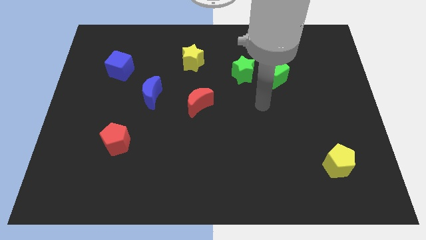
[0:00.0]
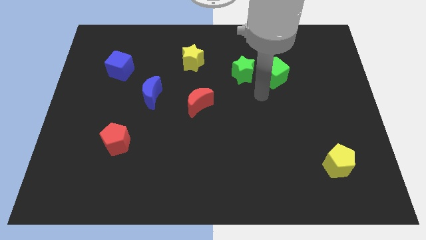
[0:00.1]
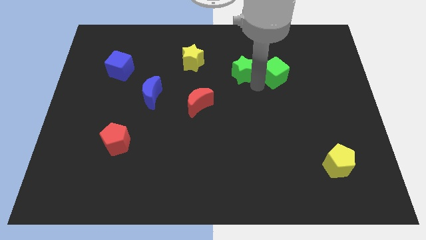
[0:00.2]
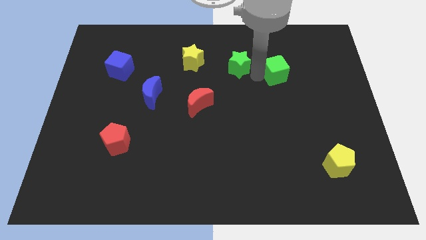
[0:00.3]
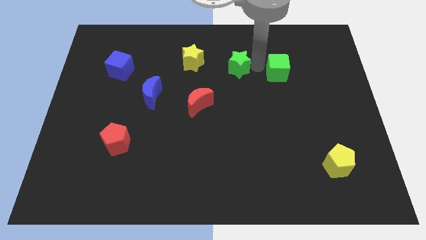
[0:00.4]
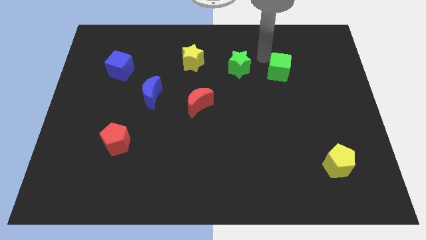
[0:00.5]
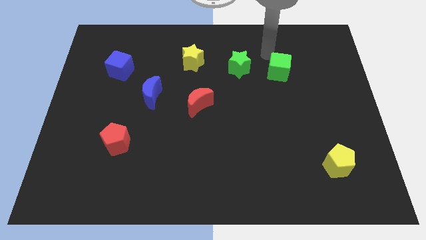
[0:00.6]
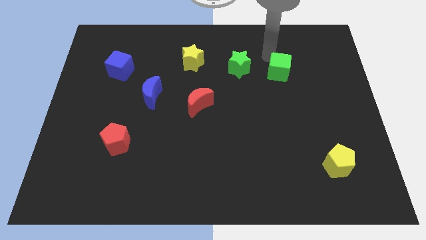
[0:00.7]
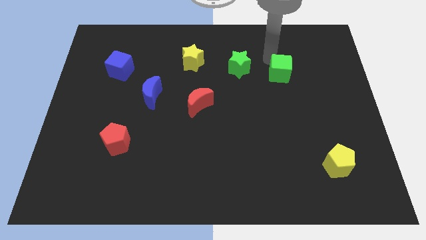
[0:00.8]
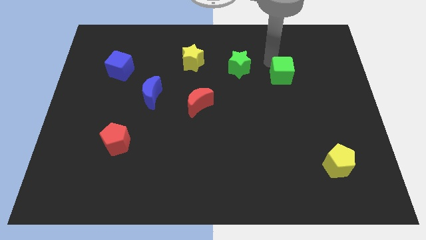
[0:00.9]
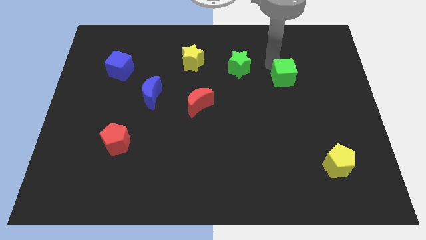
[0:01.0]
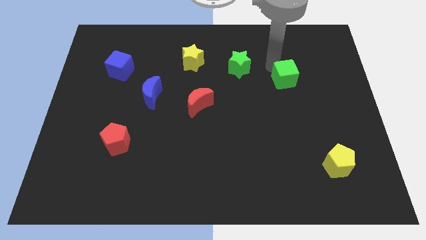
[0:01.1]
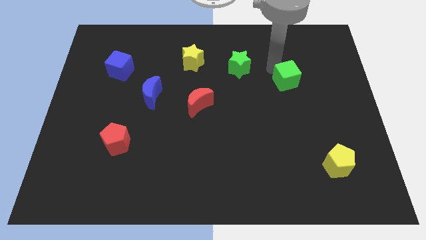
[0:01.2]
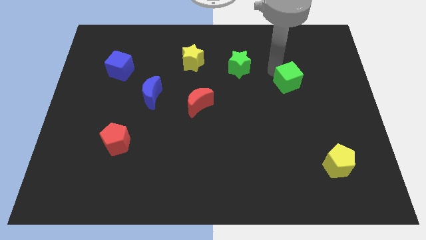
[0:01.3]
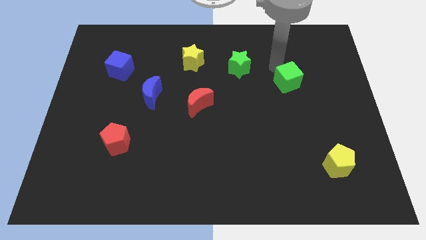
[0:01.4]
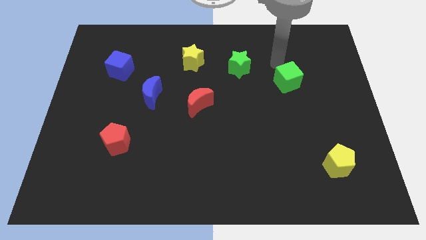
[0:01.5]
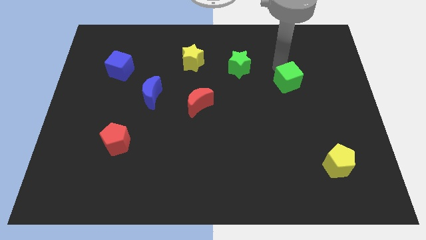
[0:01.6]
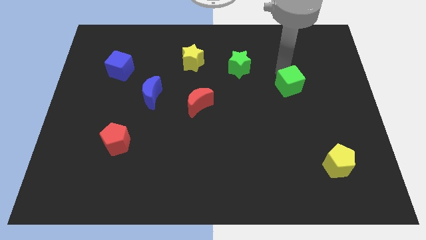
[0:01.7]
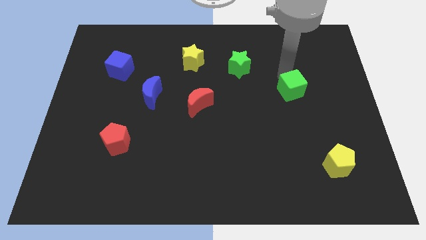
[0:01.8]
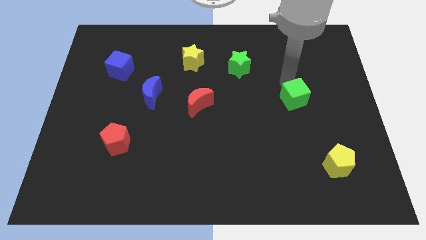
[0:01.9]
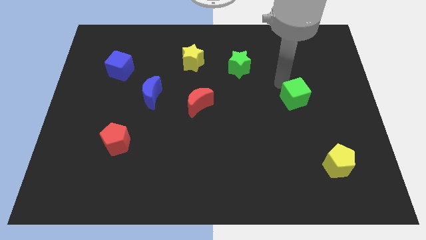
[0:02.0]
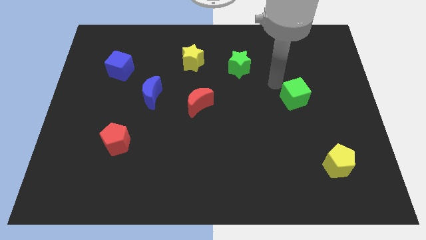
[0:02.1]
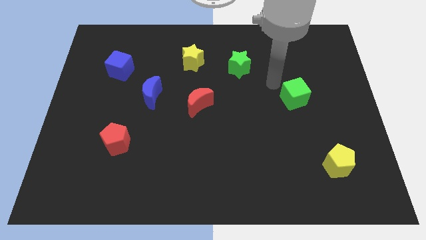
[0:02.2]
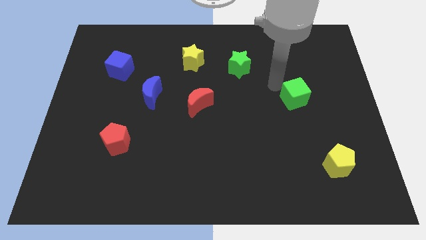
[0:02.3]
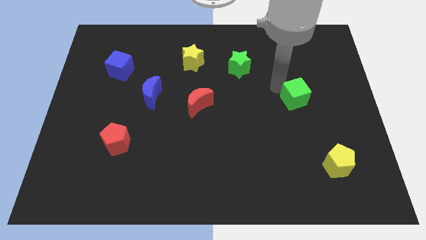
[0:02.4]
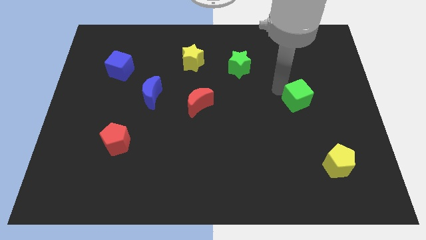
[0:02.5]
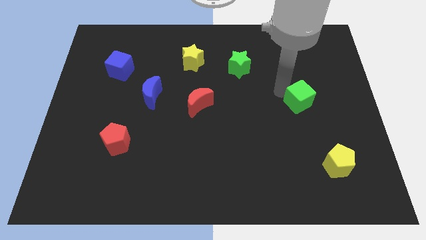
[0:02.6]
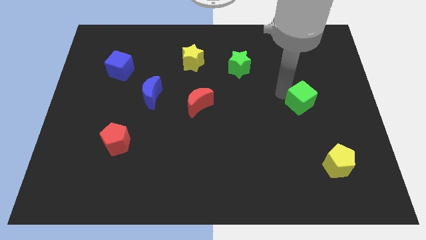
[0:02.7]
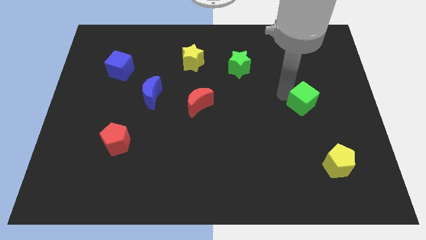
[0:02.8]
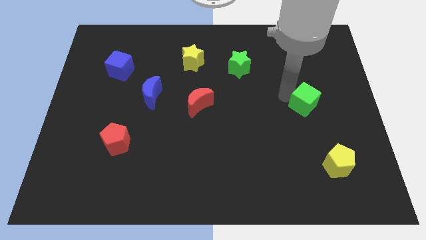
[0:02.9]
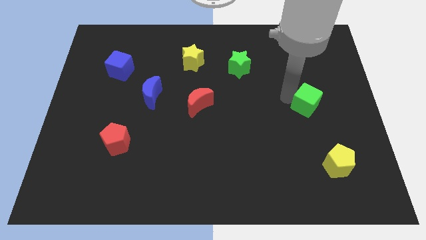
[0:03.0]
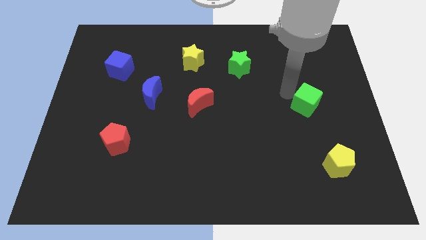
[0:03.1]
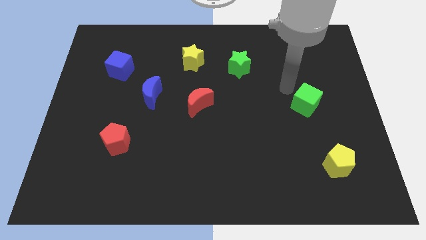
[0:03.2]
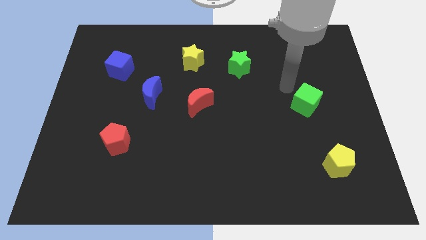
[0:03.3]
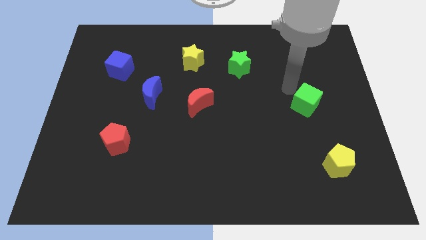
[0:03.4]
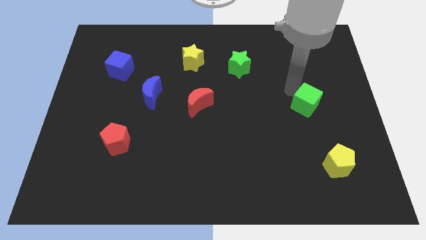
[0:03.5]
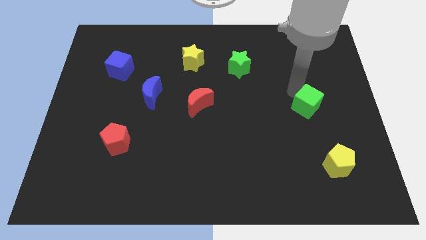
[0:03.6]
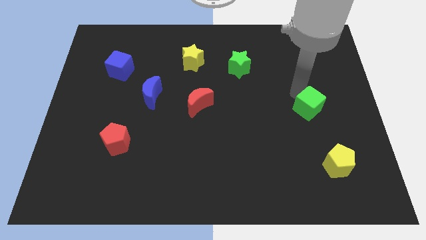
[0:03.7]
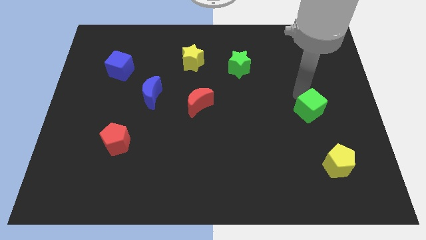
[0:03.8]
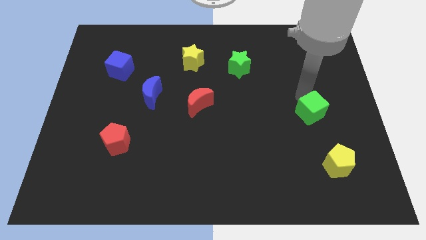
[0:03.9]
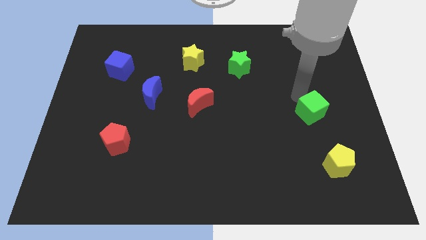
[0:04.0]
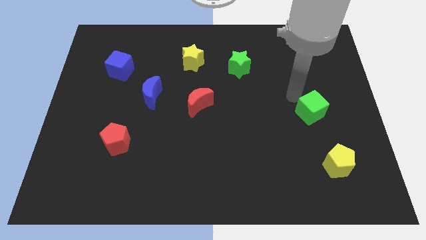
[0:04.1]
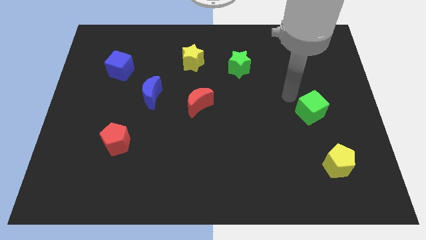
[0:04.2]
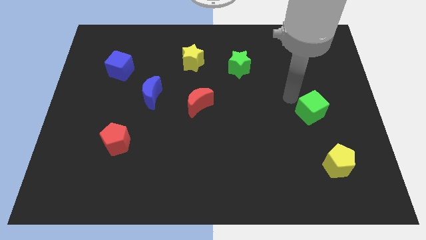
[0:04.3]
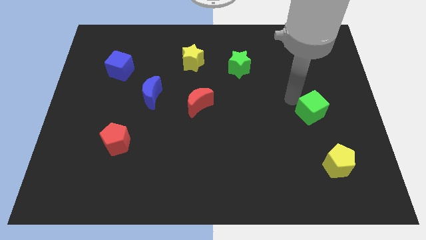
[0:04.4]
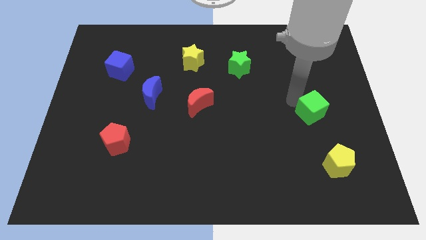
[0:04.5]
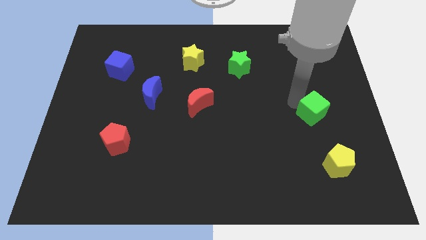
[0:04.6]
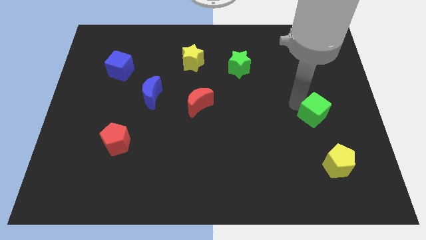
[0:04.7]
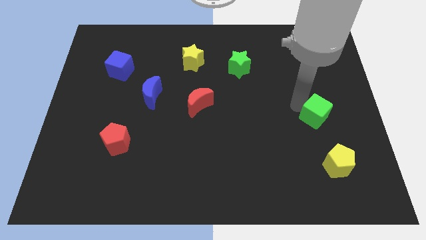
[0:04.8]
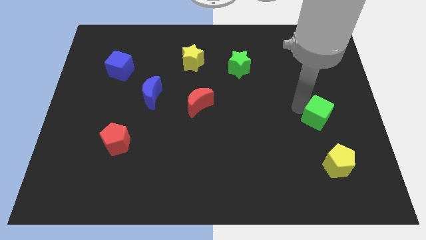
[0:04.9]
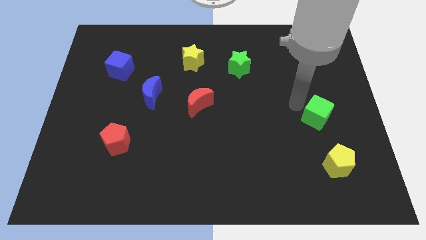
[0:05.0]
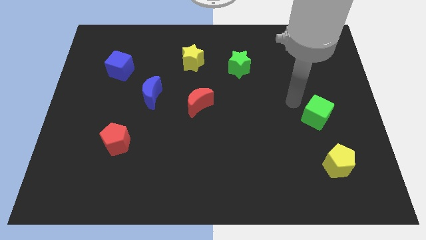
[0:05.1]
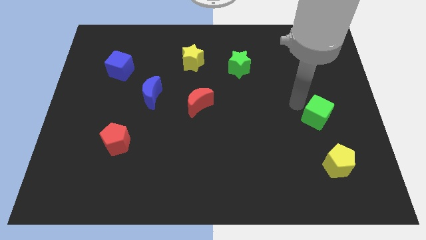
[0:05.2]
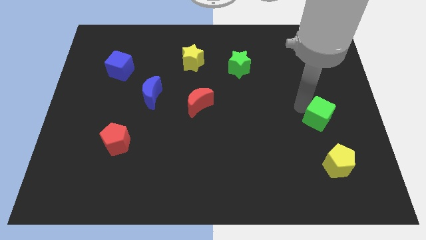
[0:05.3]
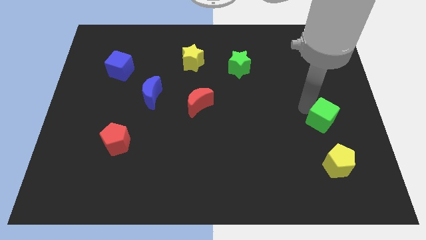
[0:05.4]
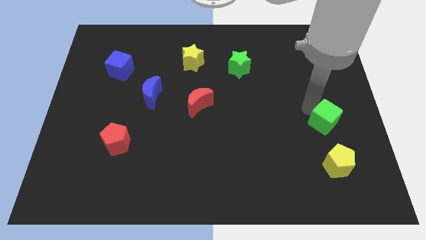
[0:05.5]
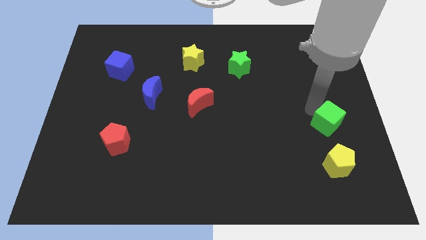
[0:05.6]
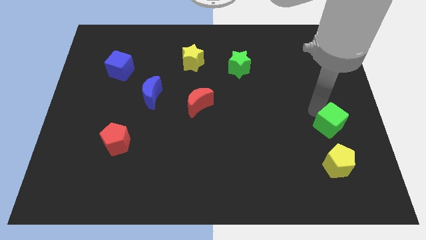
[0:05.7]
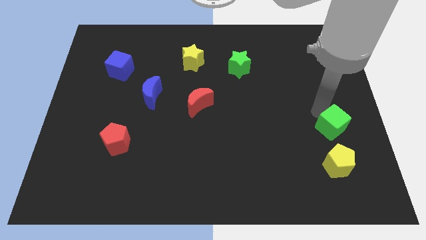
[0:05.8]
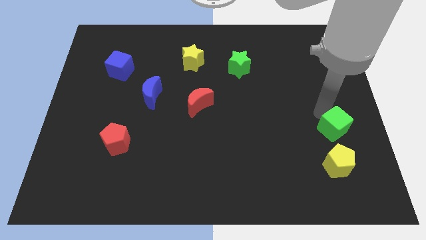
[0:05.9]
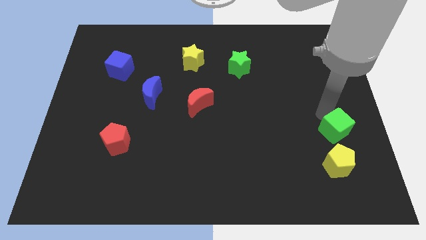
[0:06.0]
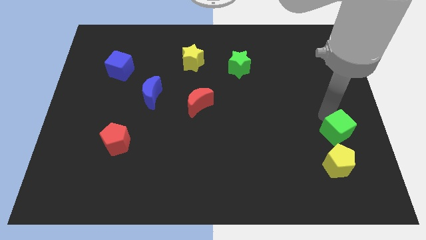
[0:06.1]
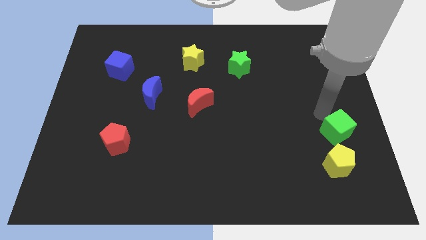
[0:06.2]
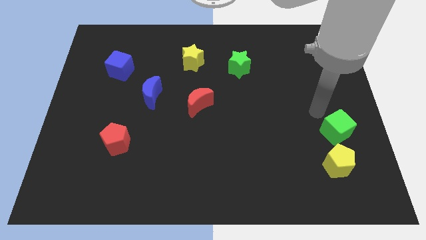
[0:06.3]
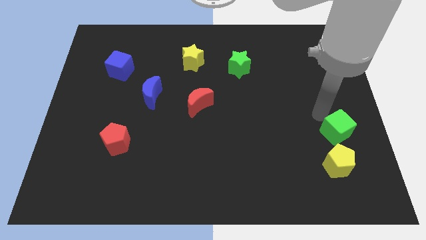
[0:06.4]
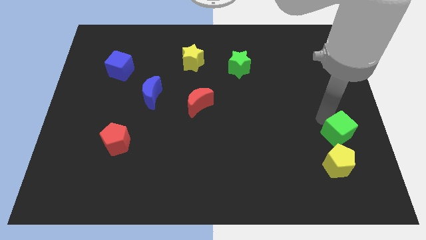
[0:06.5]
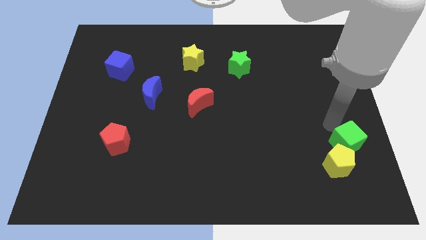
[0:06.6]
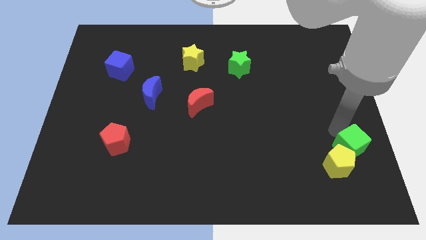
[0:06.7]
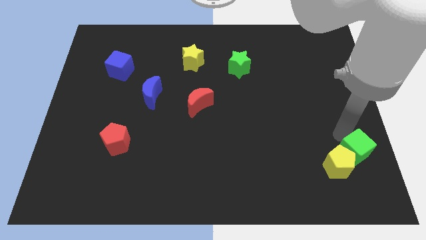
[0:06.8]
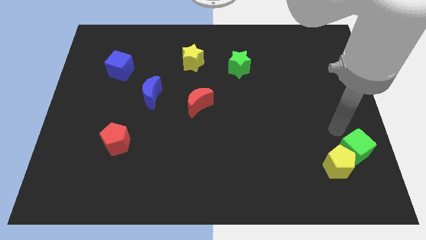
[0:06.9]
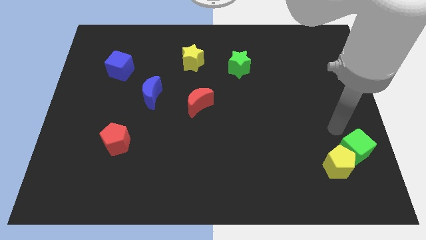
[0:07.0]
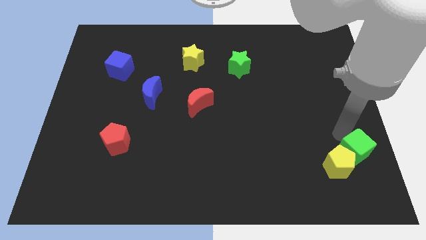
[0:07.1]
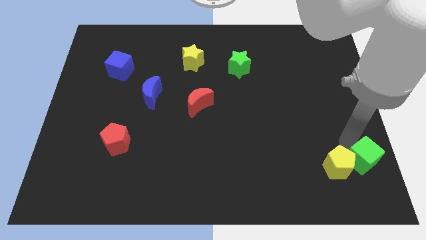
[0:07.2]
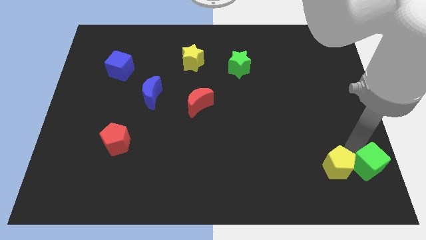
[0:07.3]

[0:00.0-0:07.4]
put the green cube to the bottom right corner

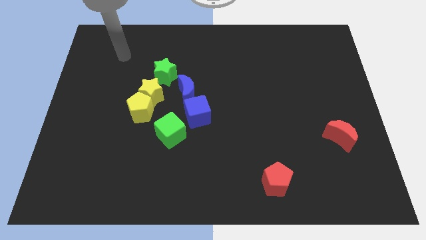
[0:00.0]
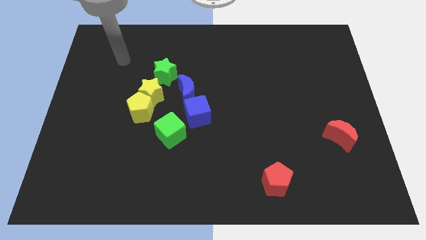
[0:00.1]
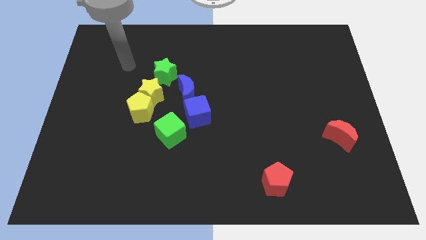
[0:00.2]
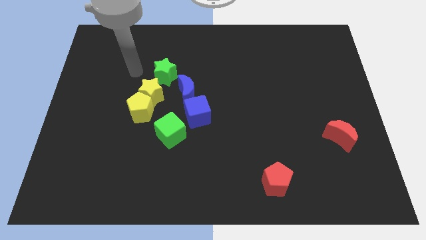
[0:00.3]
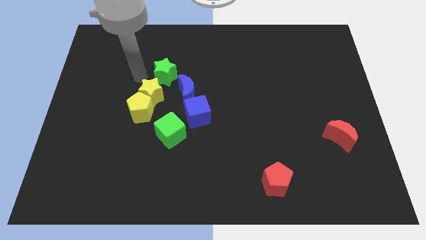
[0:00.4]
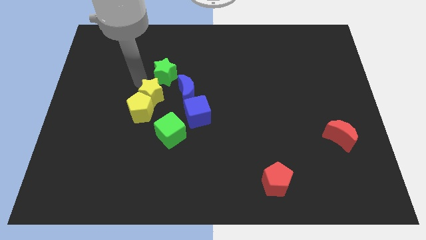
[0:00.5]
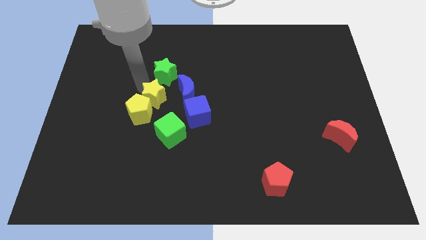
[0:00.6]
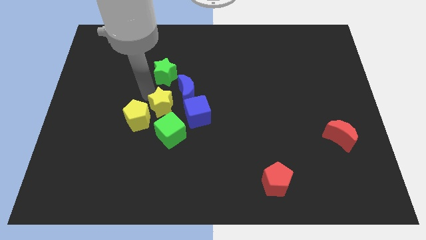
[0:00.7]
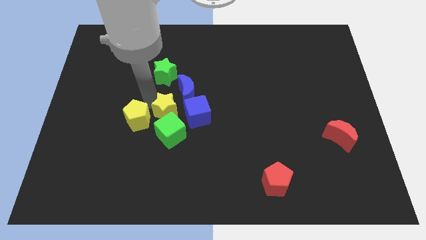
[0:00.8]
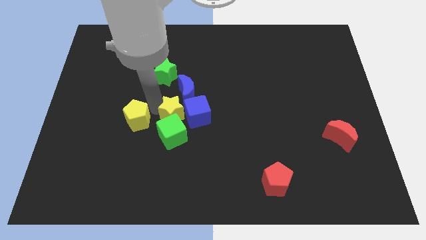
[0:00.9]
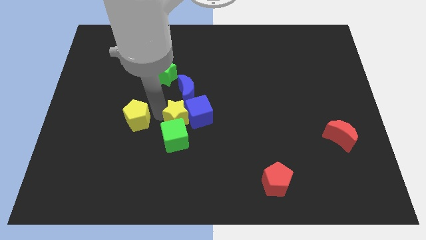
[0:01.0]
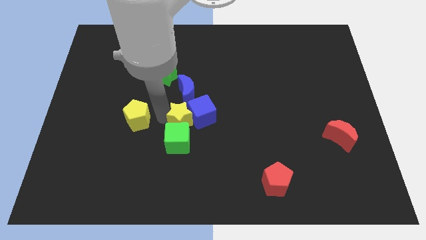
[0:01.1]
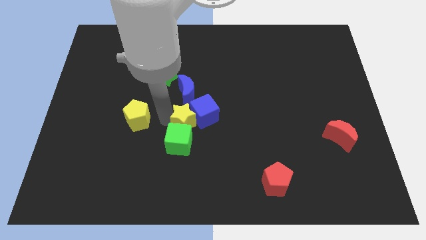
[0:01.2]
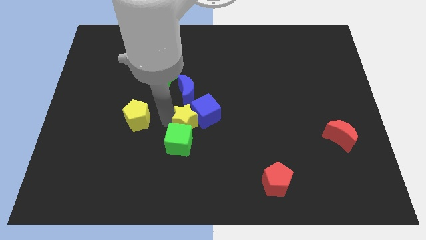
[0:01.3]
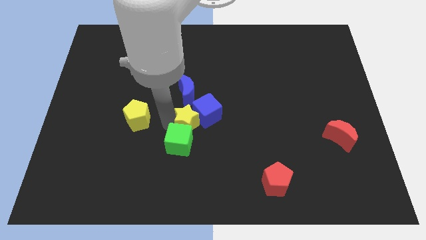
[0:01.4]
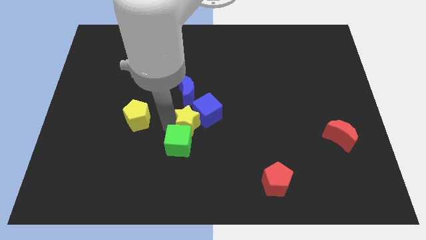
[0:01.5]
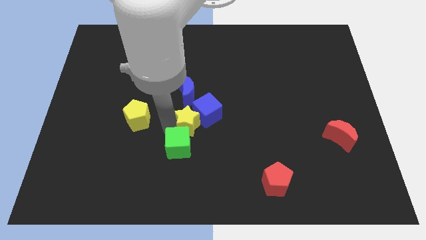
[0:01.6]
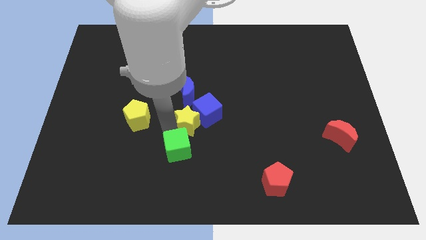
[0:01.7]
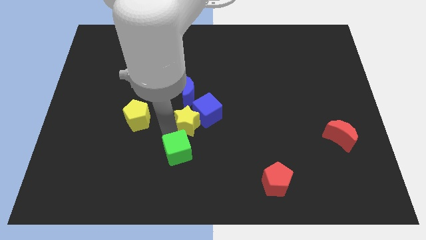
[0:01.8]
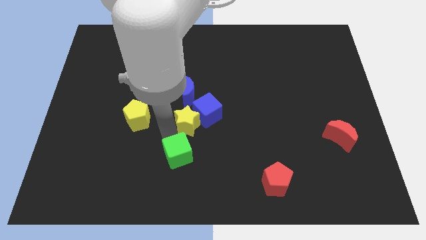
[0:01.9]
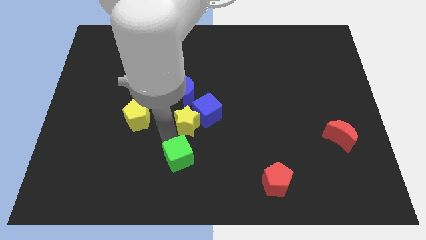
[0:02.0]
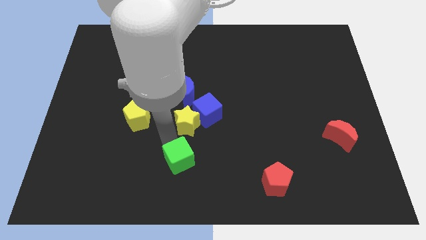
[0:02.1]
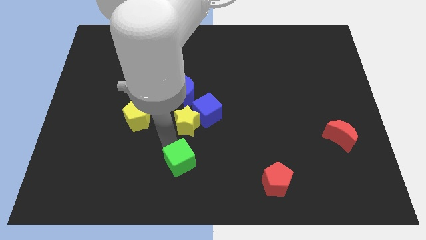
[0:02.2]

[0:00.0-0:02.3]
put the green cube to the bottom
